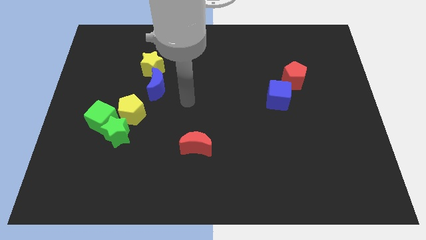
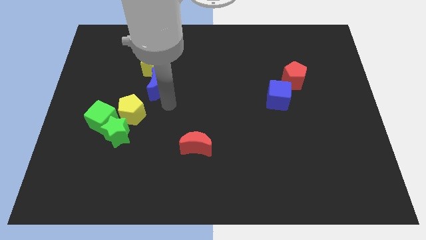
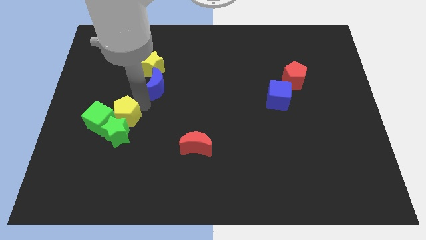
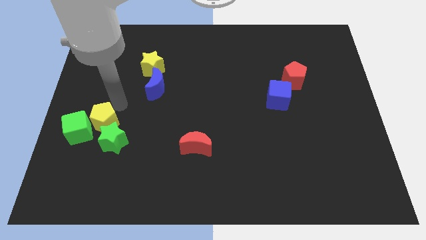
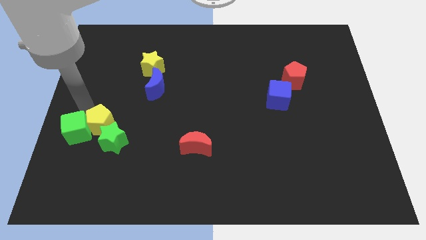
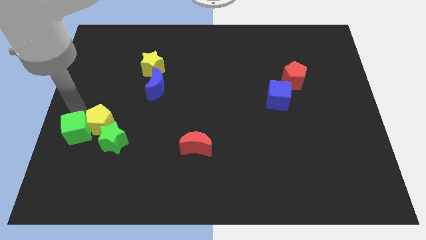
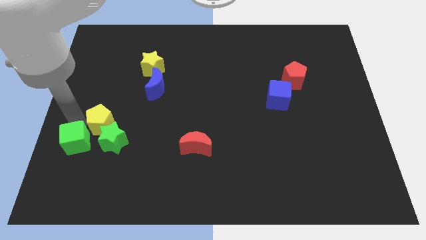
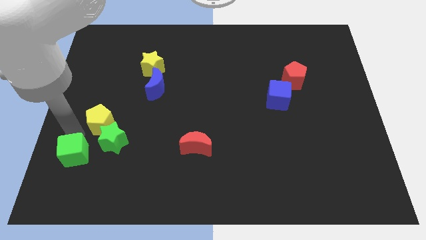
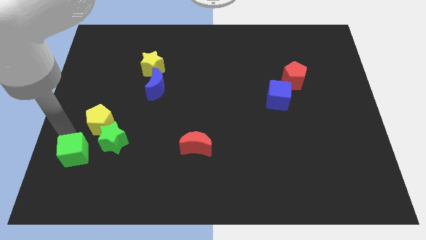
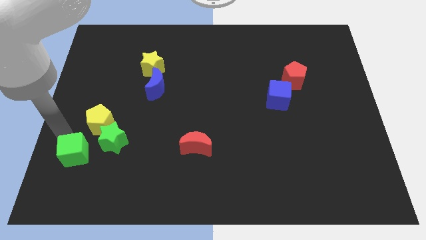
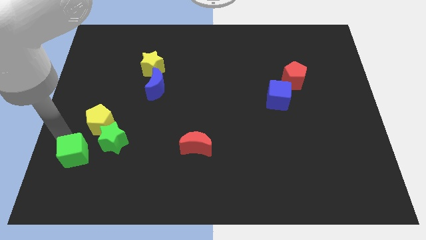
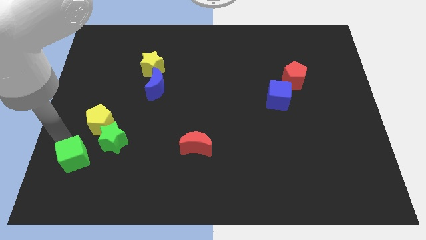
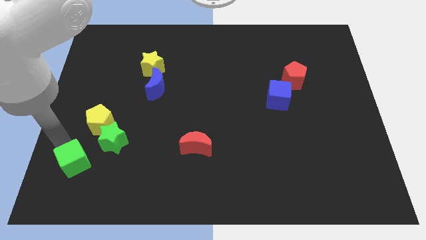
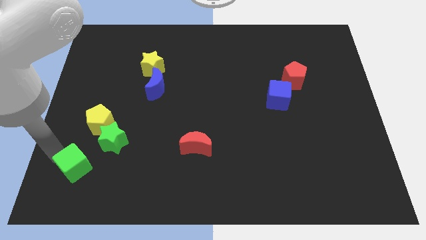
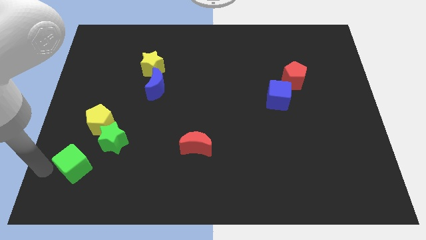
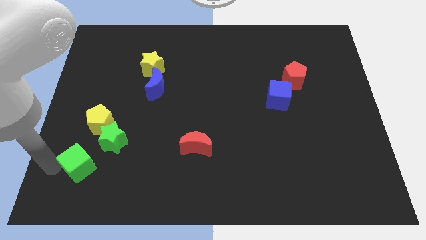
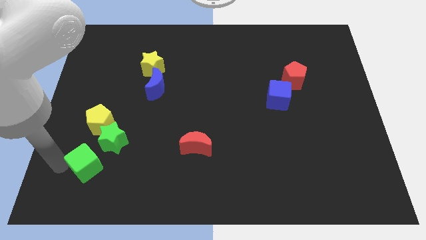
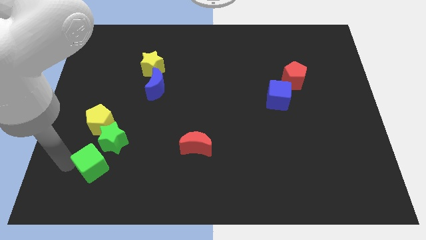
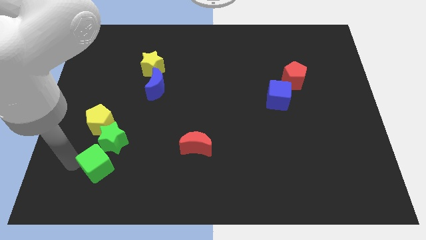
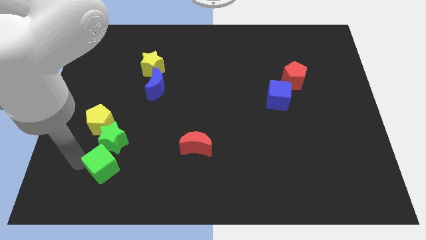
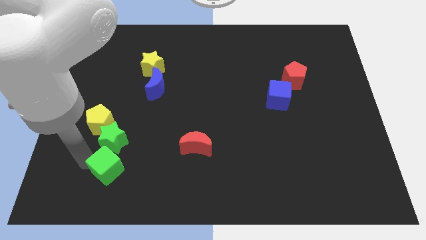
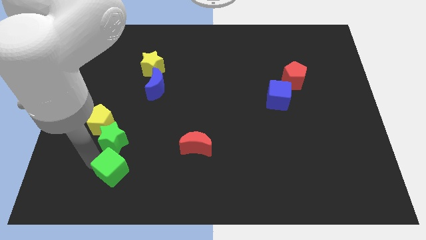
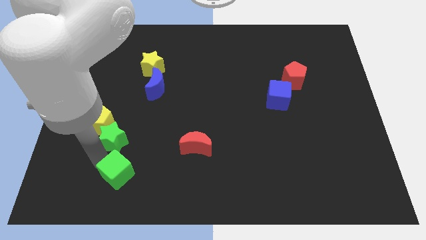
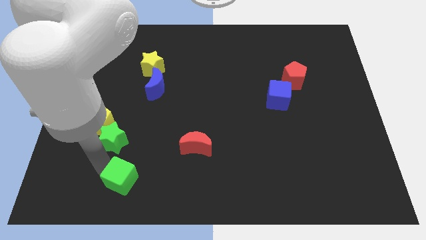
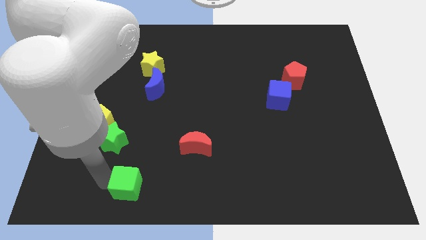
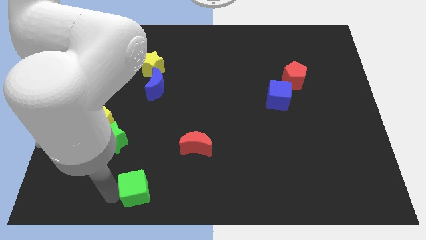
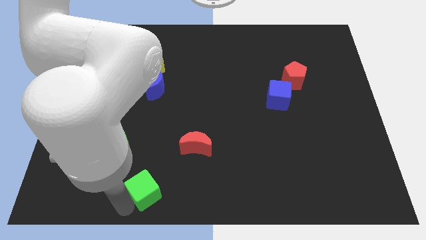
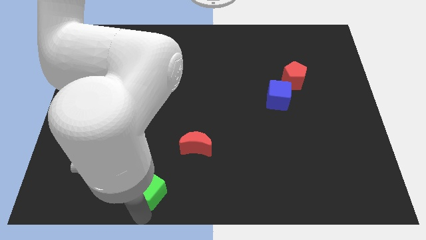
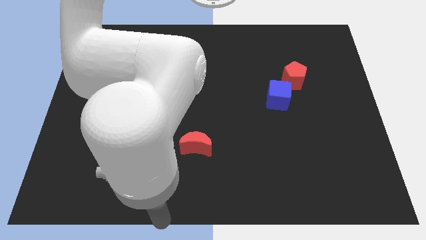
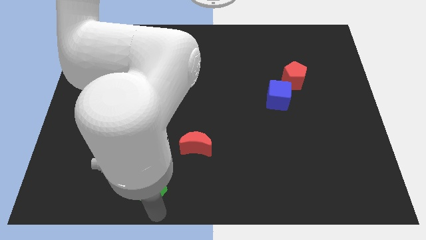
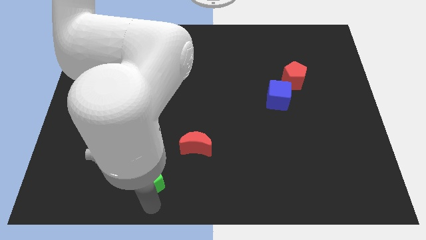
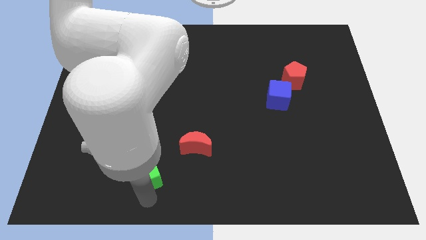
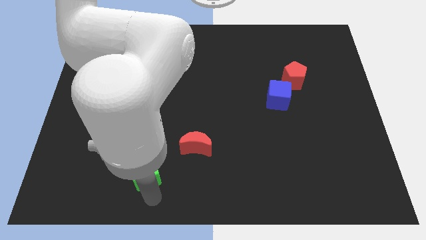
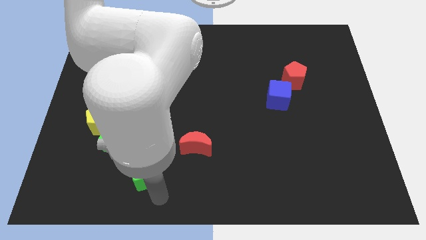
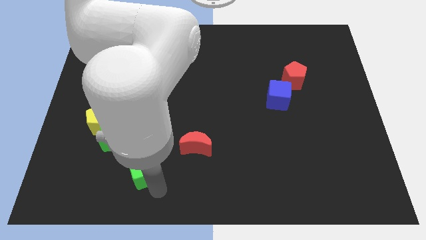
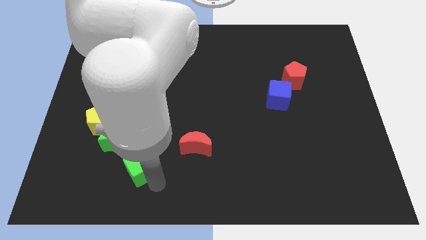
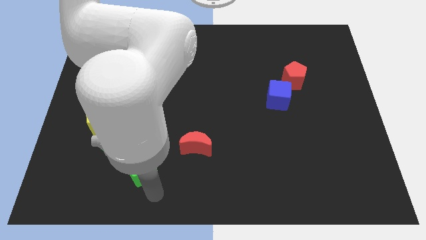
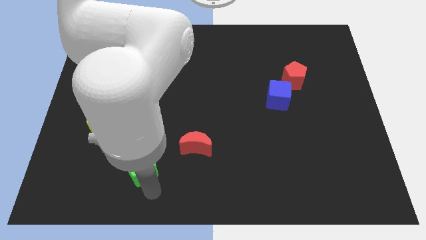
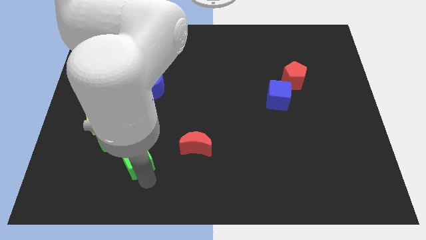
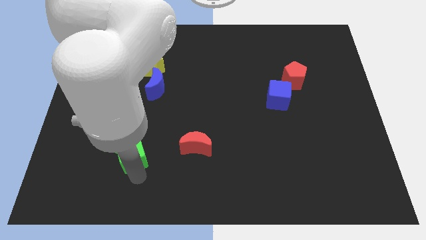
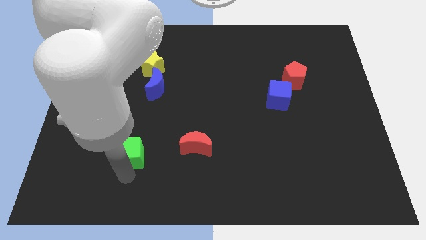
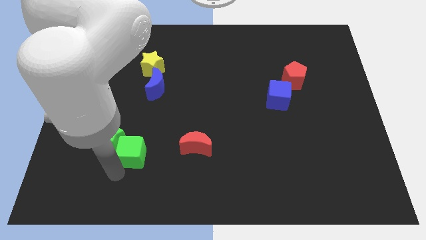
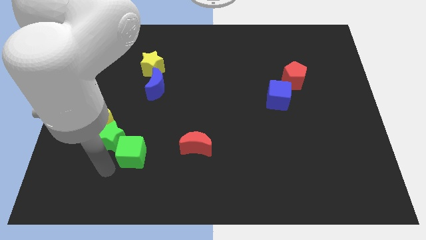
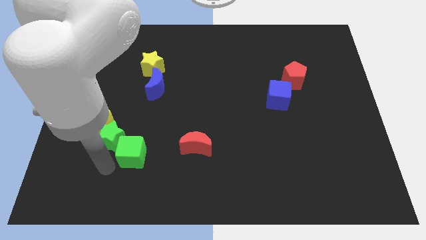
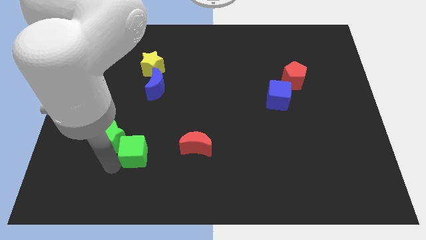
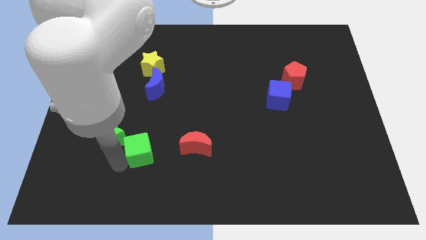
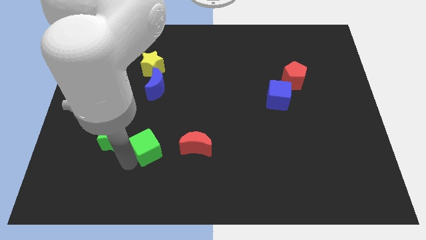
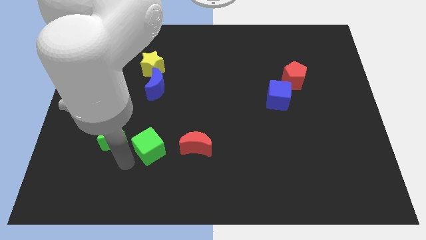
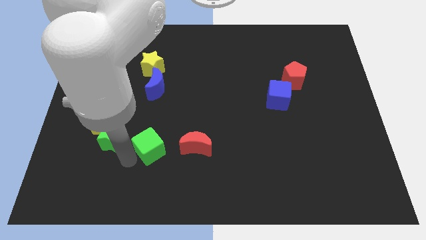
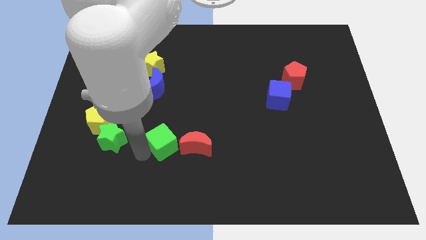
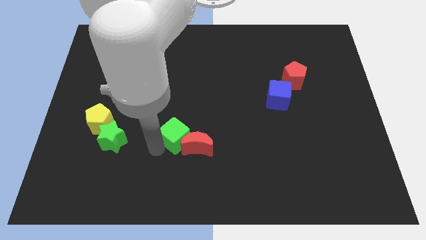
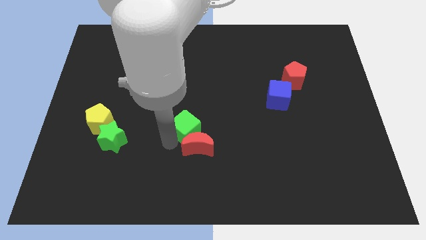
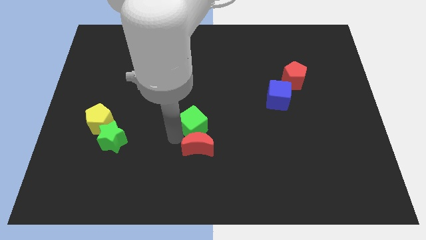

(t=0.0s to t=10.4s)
push the green cube right

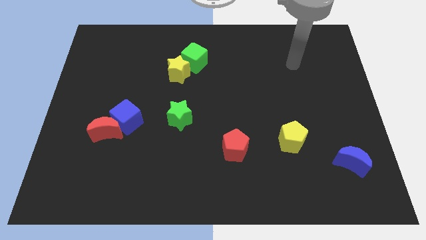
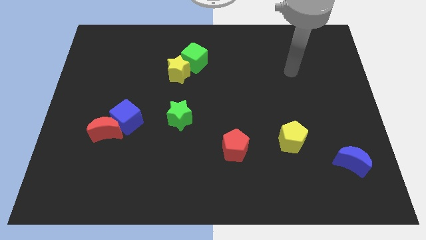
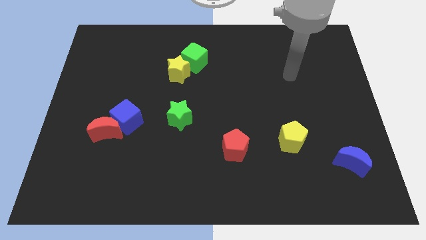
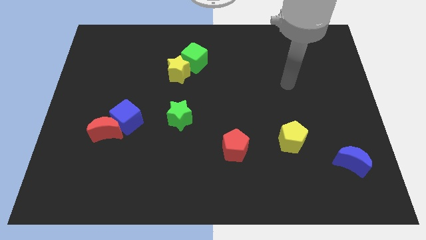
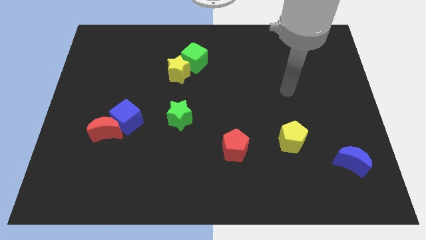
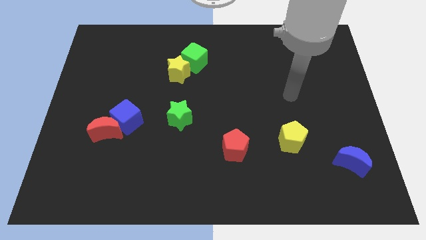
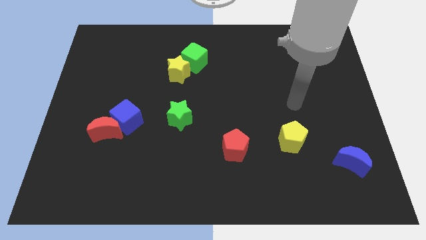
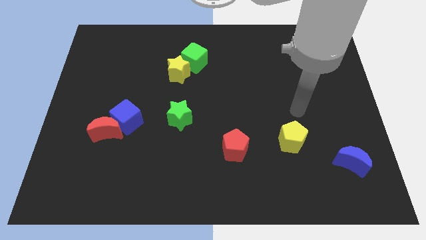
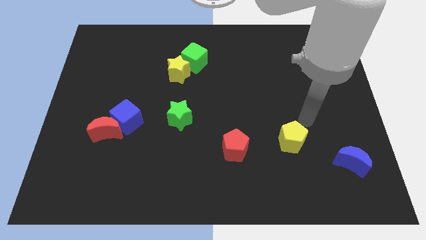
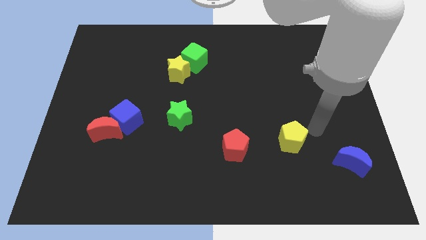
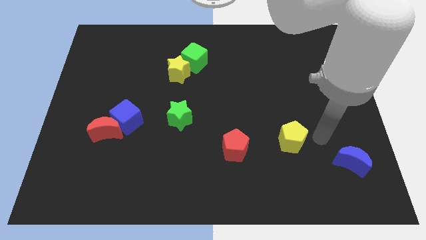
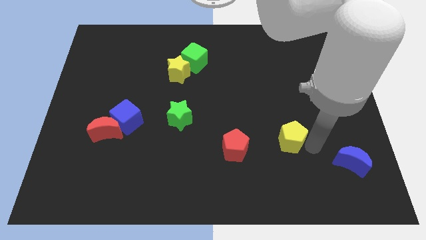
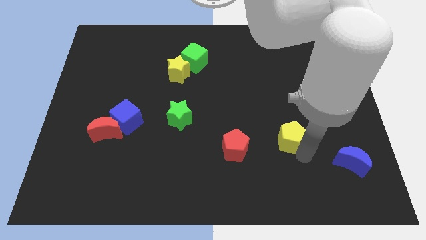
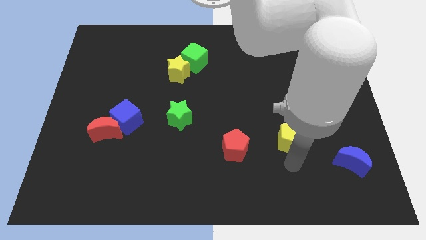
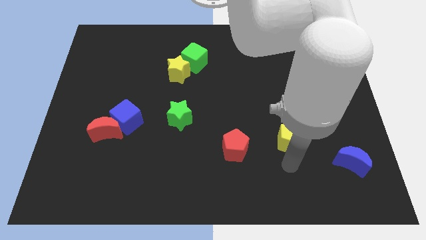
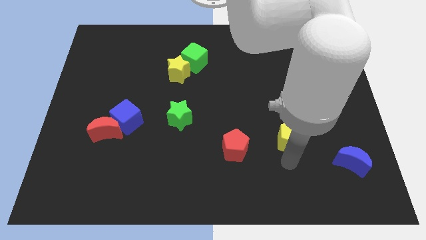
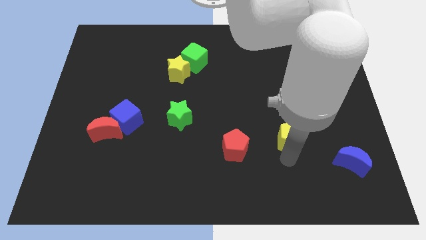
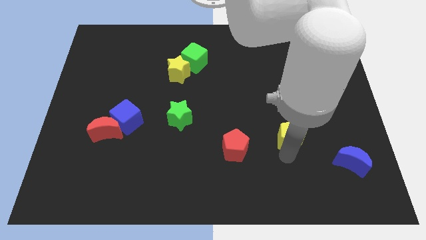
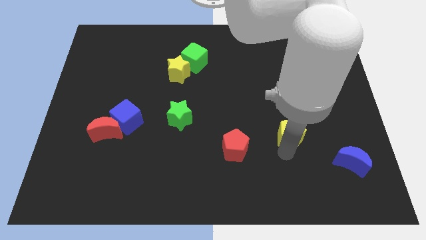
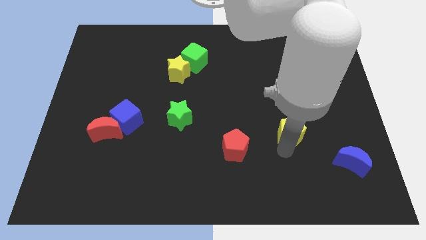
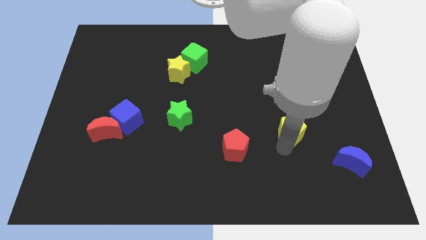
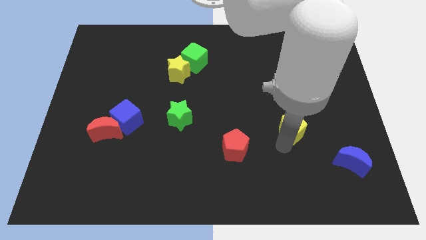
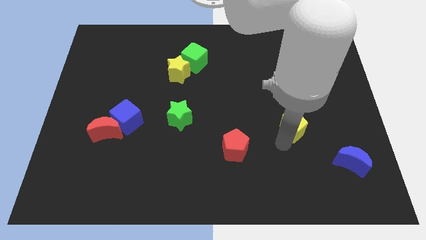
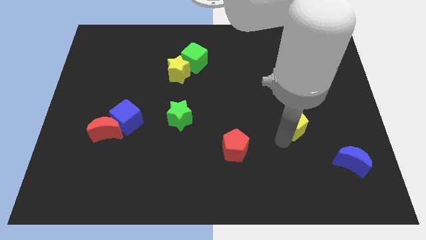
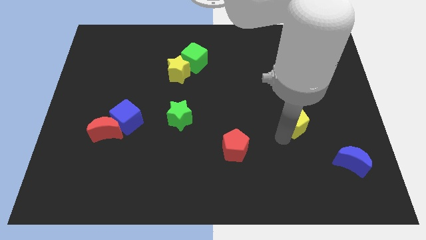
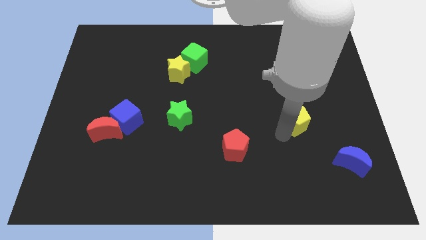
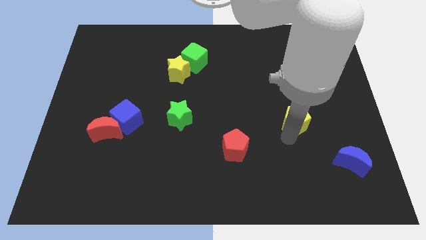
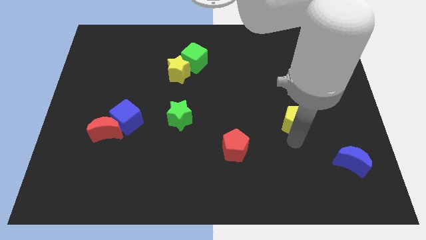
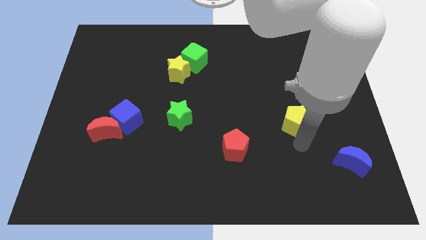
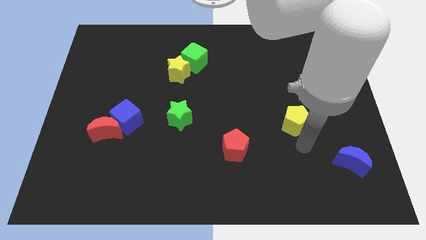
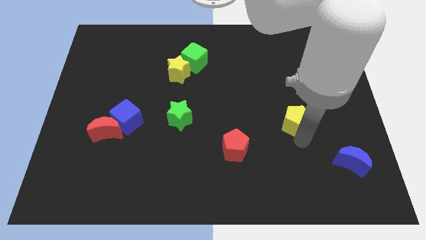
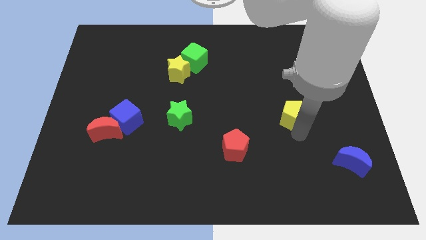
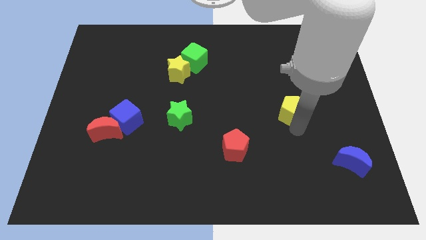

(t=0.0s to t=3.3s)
push the yellow pentagon somewhat up

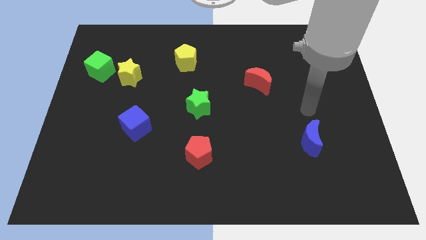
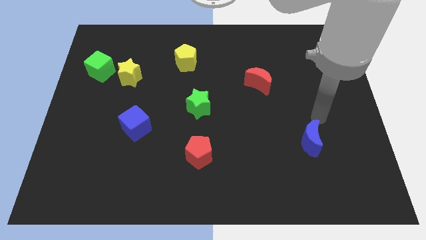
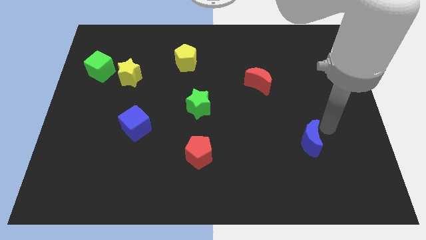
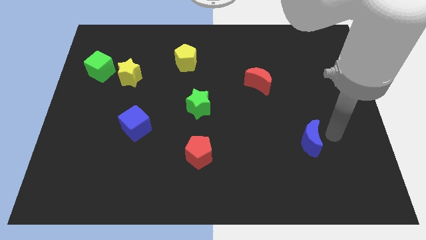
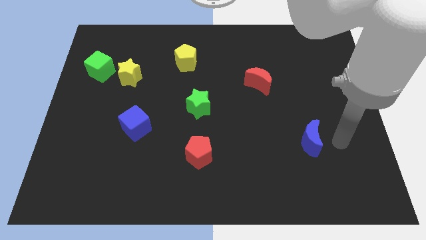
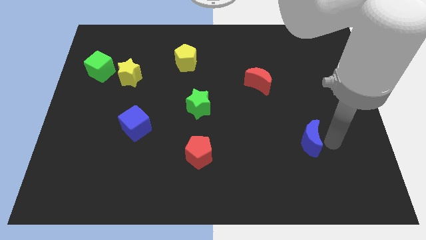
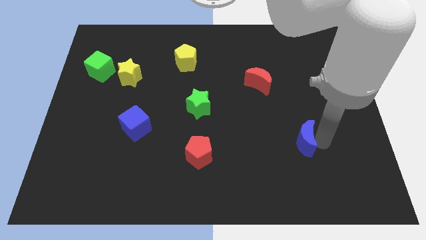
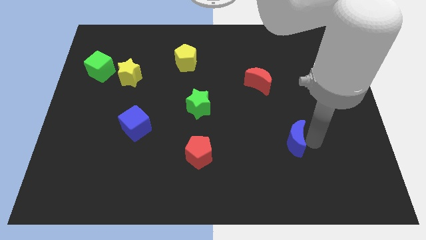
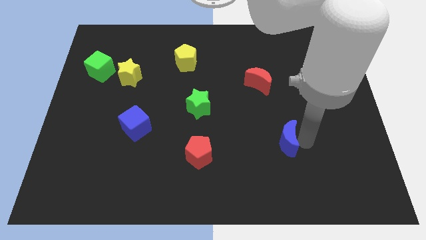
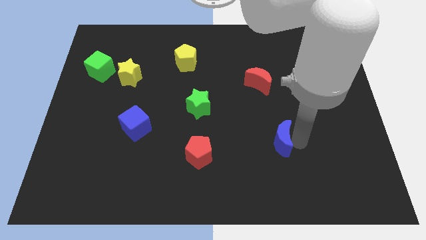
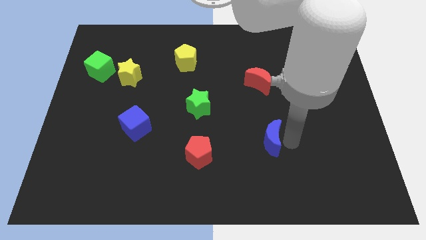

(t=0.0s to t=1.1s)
move the blue moon to the left a little
